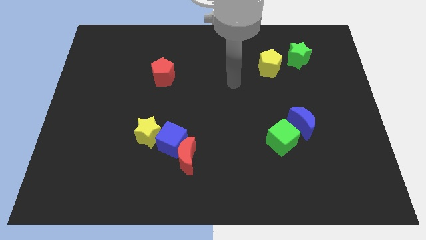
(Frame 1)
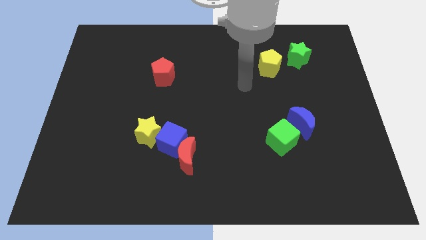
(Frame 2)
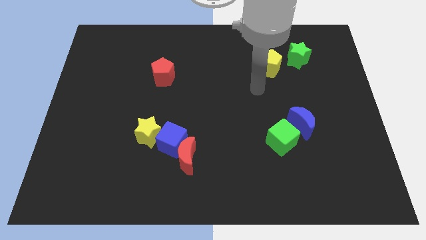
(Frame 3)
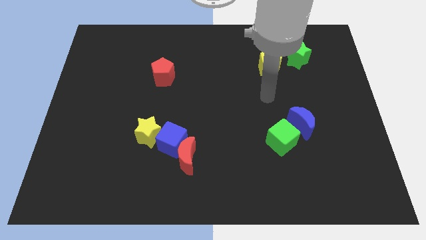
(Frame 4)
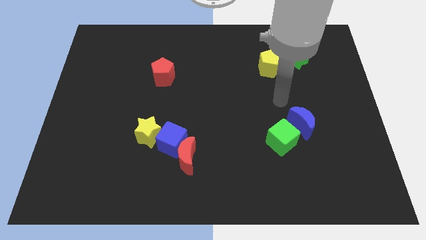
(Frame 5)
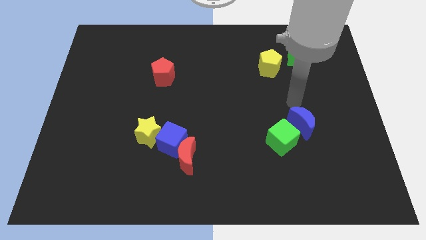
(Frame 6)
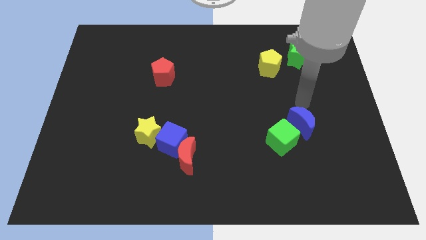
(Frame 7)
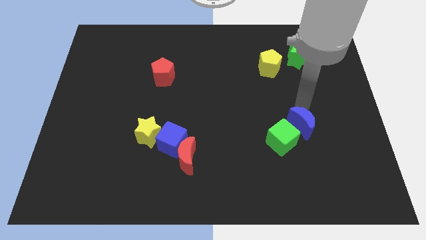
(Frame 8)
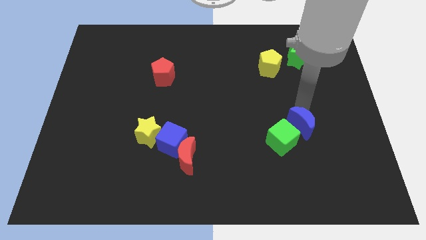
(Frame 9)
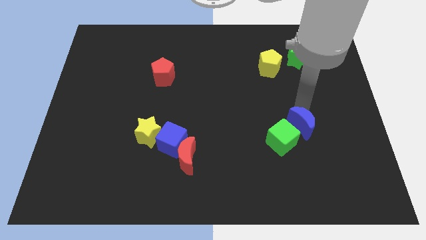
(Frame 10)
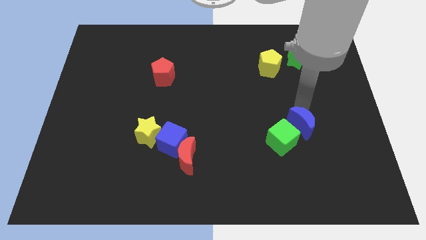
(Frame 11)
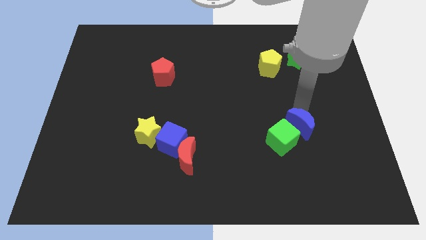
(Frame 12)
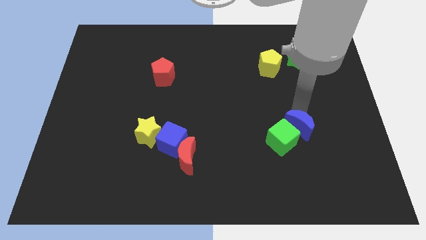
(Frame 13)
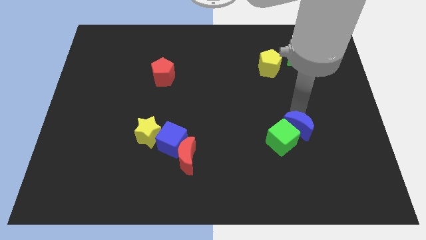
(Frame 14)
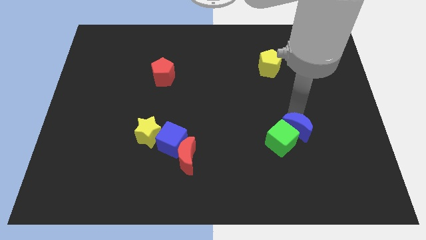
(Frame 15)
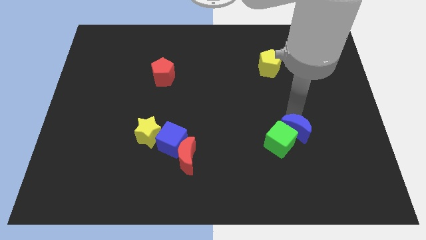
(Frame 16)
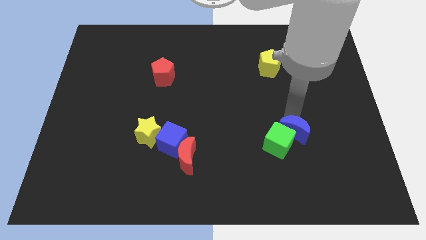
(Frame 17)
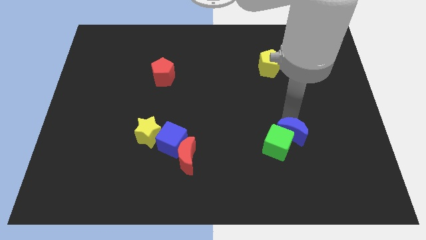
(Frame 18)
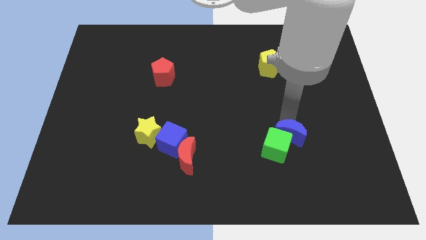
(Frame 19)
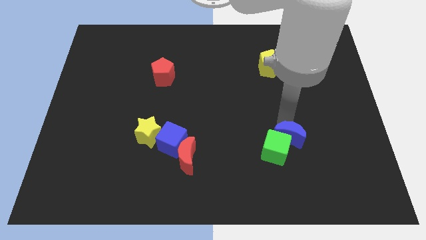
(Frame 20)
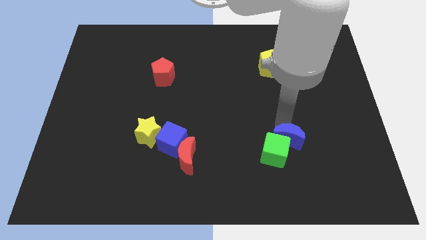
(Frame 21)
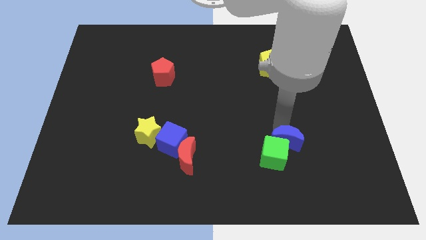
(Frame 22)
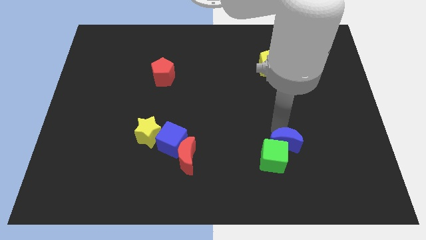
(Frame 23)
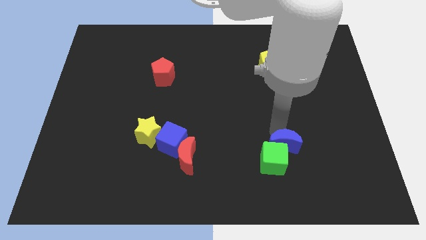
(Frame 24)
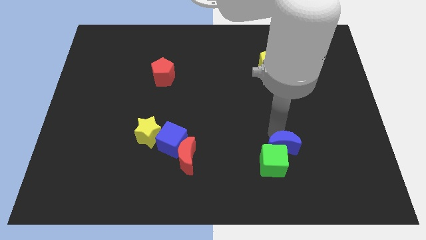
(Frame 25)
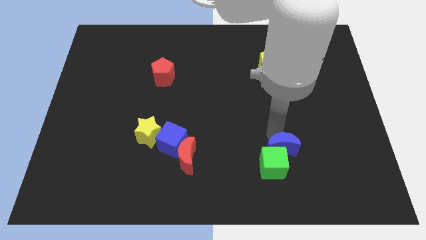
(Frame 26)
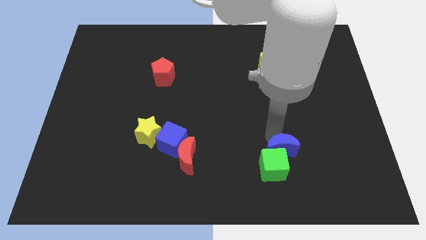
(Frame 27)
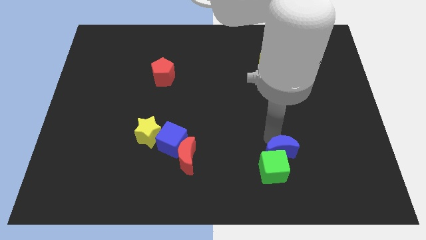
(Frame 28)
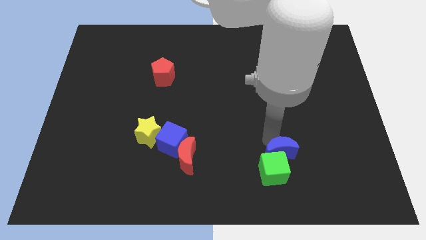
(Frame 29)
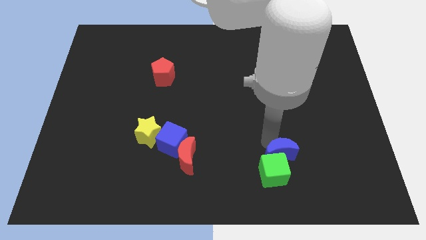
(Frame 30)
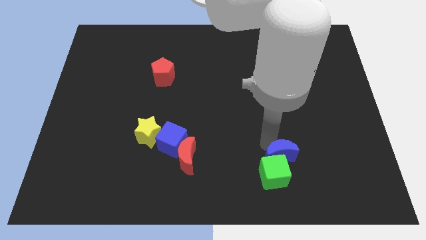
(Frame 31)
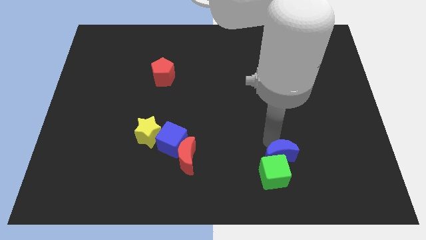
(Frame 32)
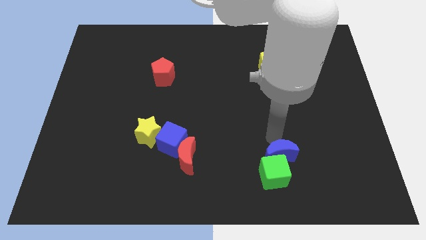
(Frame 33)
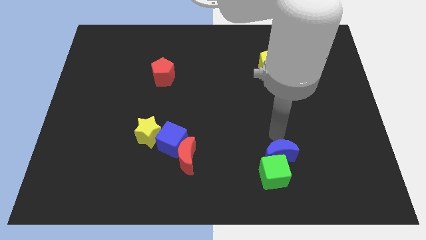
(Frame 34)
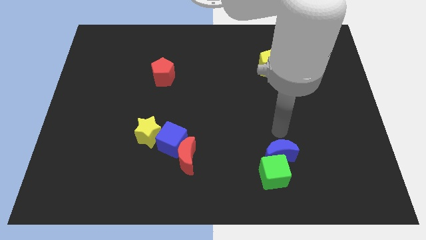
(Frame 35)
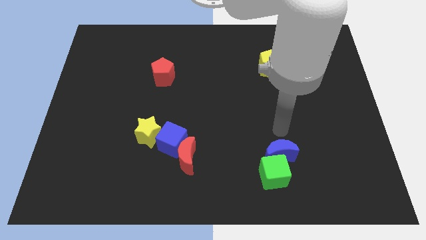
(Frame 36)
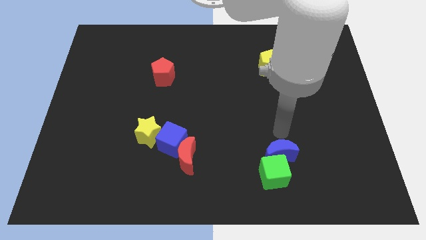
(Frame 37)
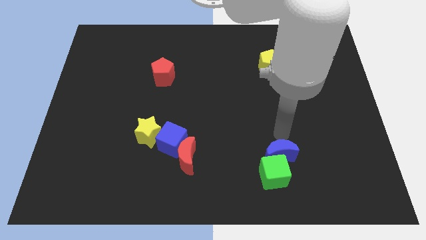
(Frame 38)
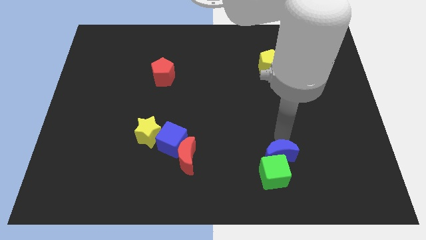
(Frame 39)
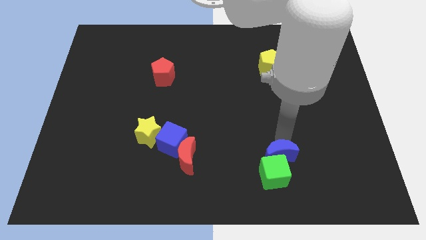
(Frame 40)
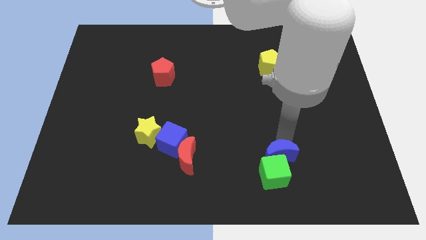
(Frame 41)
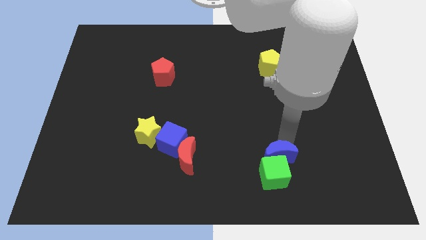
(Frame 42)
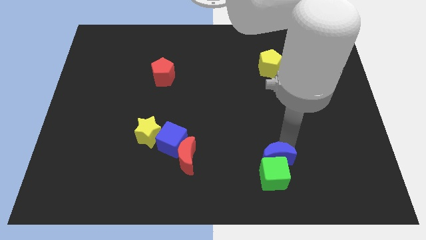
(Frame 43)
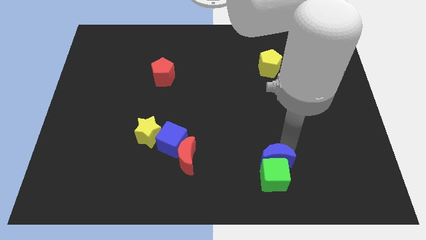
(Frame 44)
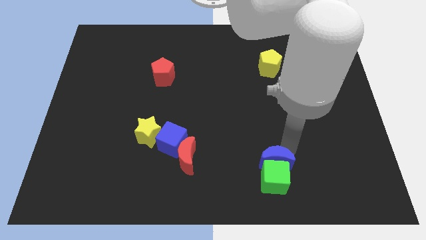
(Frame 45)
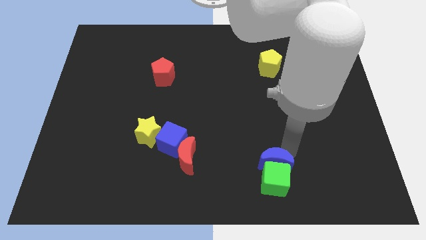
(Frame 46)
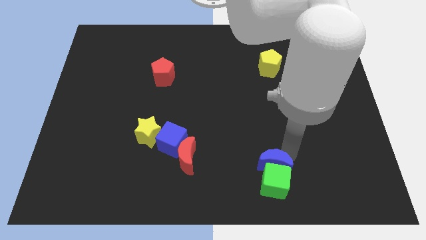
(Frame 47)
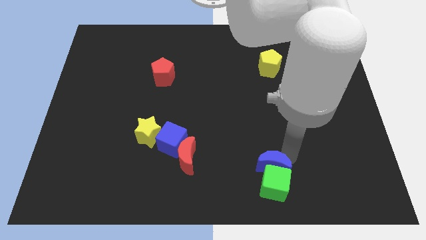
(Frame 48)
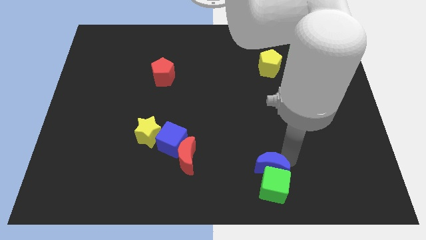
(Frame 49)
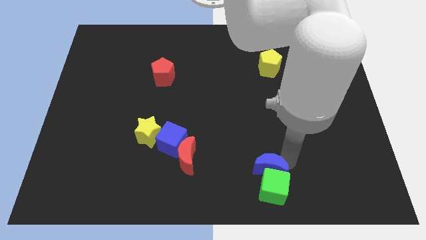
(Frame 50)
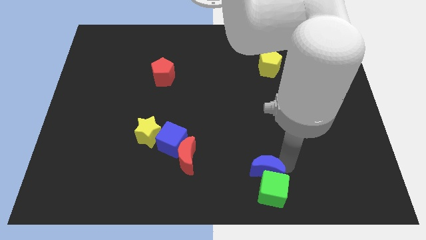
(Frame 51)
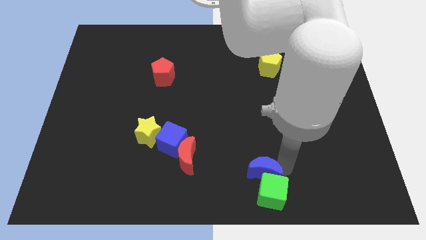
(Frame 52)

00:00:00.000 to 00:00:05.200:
slide the blue moon to the bottom

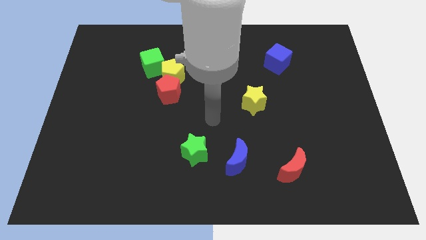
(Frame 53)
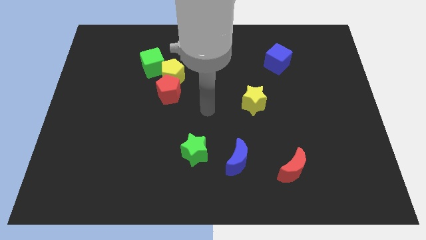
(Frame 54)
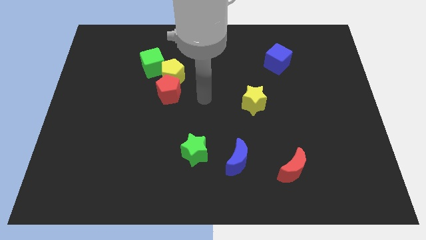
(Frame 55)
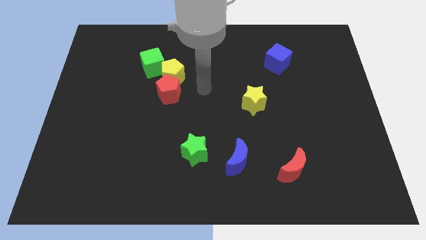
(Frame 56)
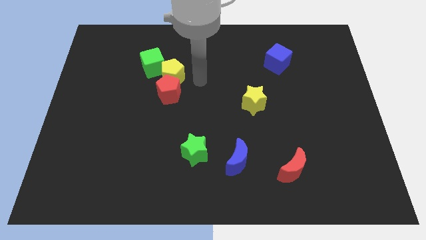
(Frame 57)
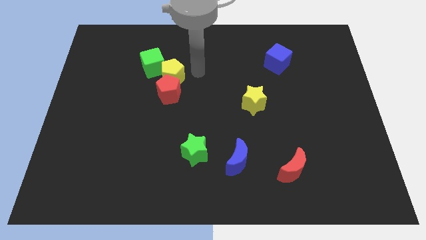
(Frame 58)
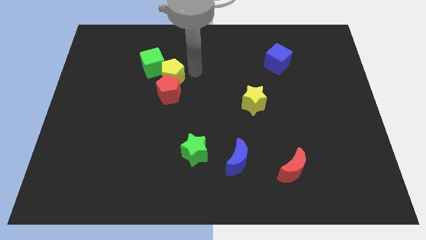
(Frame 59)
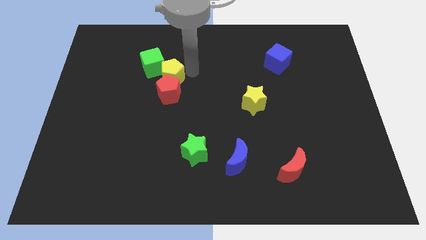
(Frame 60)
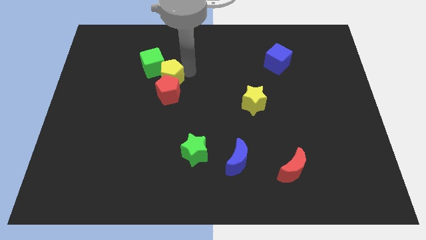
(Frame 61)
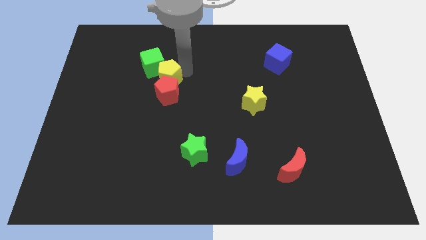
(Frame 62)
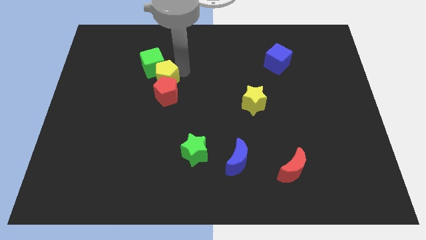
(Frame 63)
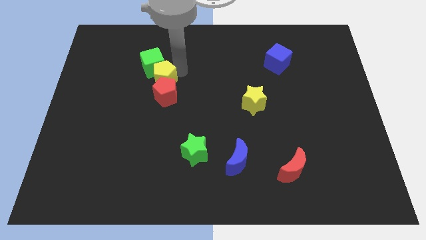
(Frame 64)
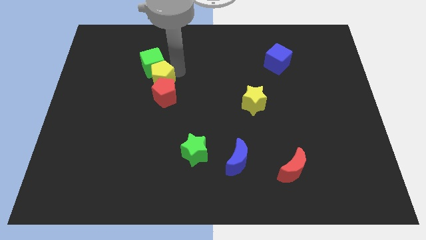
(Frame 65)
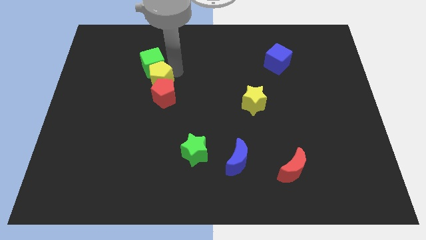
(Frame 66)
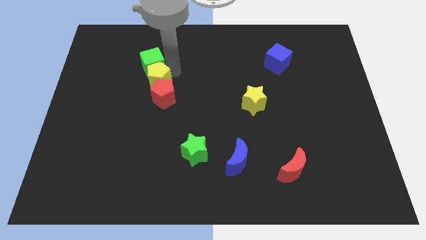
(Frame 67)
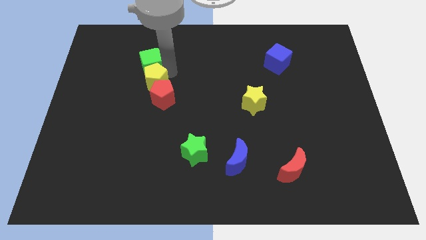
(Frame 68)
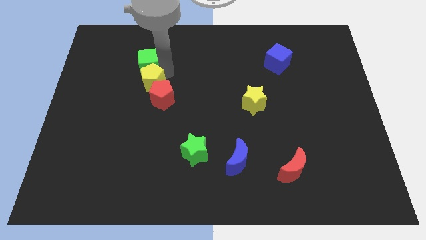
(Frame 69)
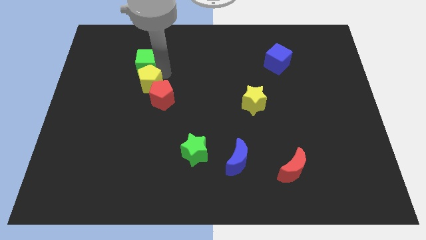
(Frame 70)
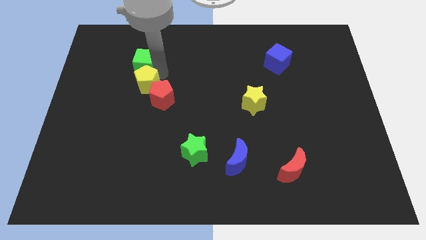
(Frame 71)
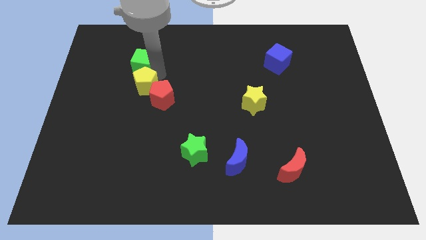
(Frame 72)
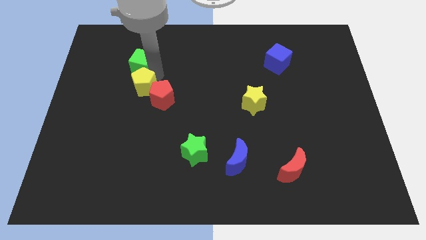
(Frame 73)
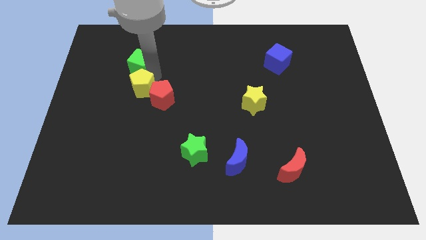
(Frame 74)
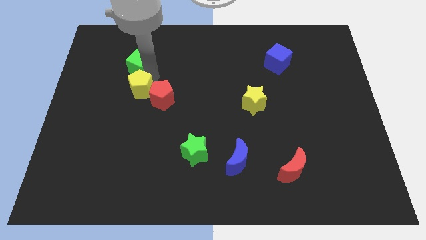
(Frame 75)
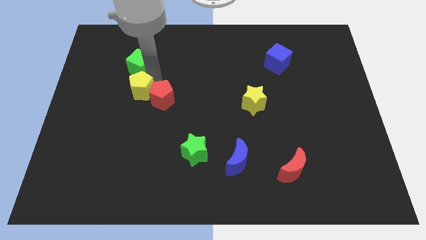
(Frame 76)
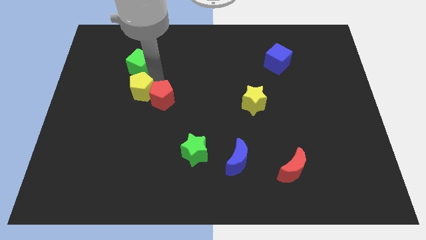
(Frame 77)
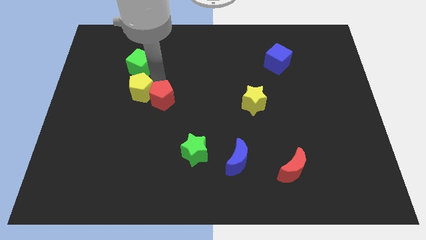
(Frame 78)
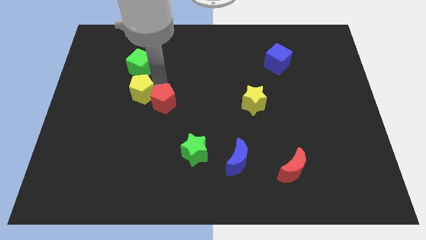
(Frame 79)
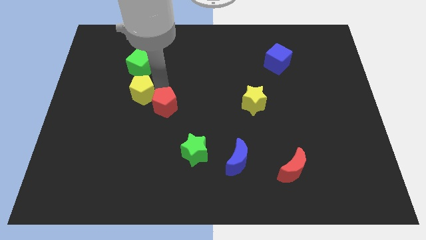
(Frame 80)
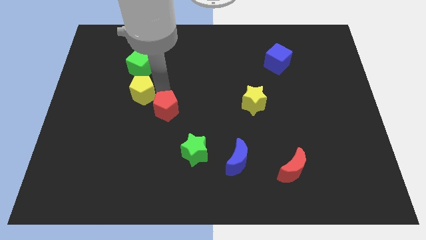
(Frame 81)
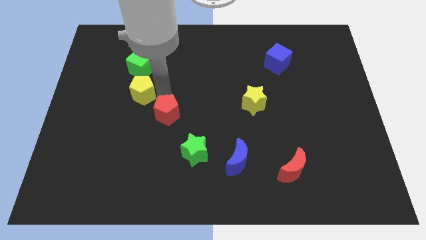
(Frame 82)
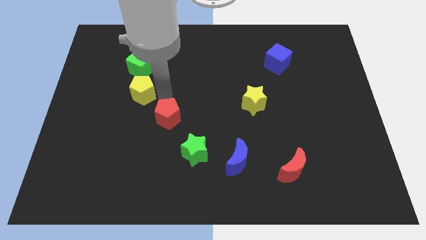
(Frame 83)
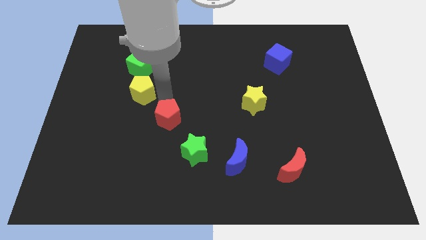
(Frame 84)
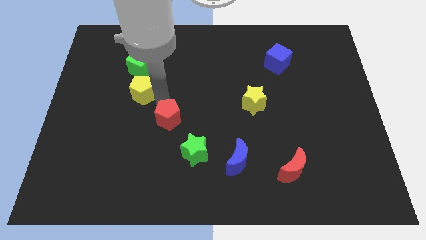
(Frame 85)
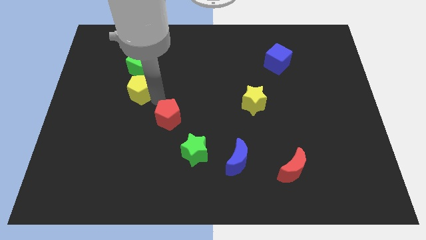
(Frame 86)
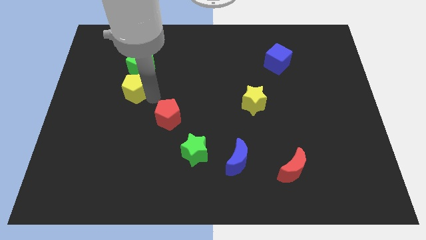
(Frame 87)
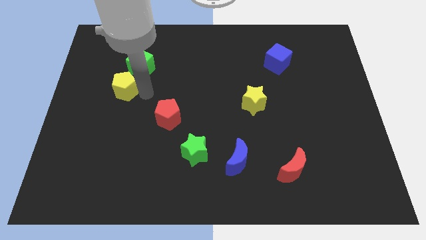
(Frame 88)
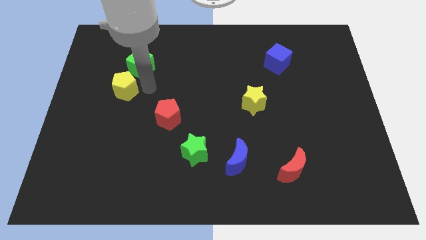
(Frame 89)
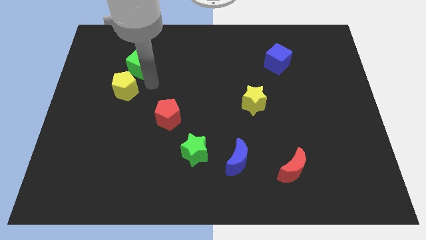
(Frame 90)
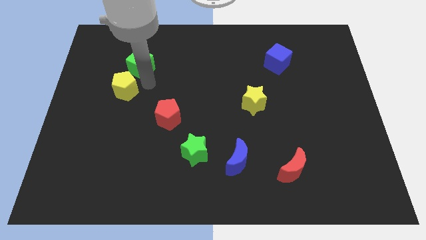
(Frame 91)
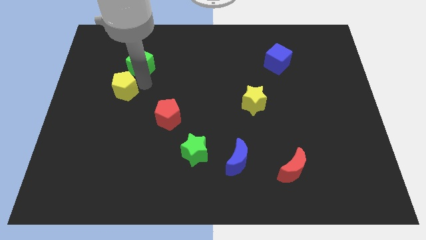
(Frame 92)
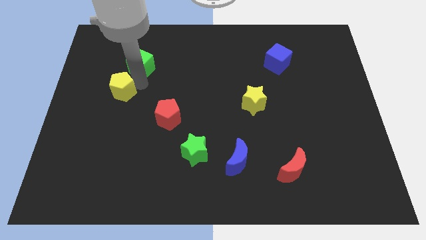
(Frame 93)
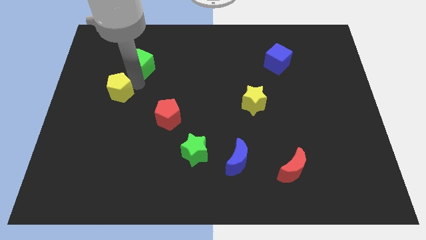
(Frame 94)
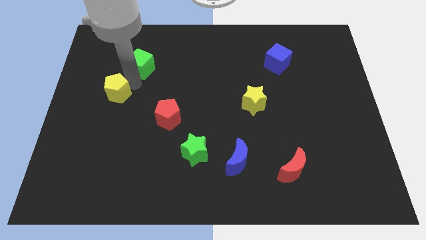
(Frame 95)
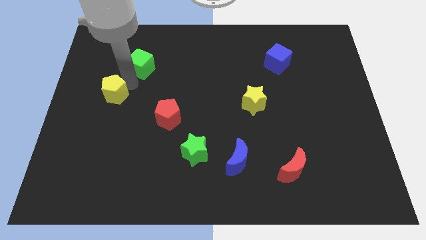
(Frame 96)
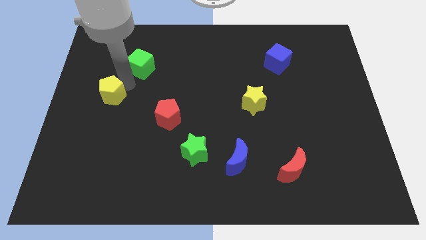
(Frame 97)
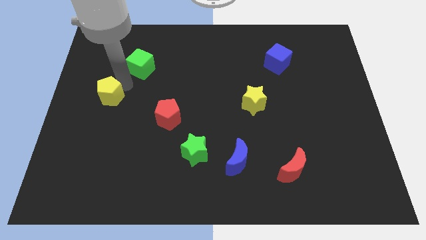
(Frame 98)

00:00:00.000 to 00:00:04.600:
push the yellow pentagon to the left side of the board
